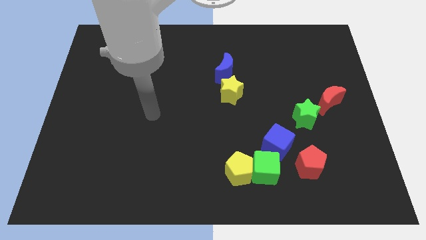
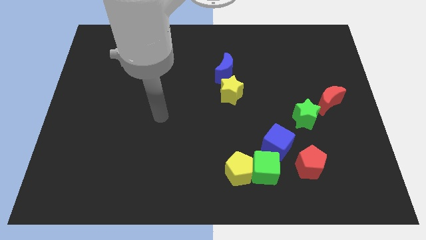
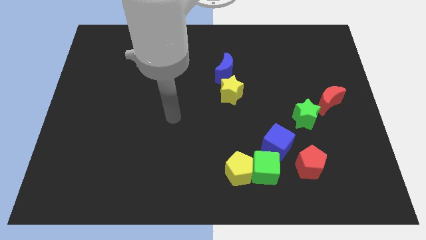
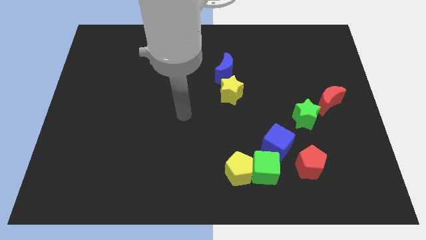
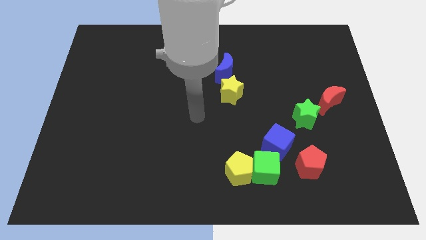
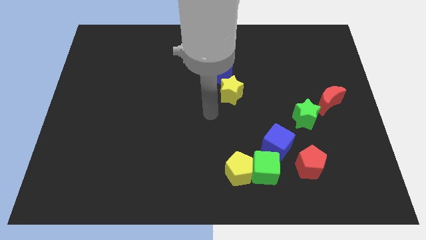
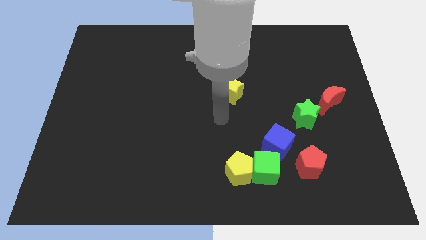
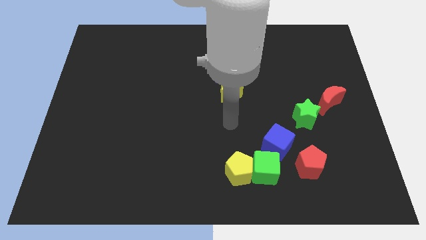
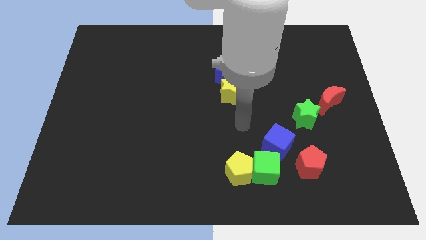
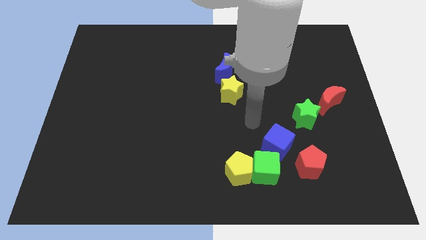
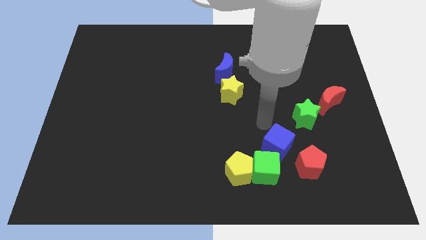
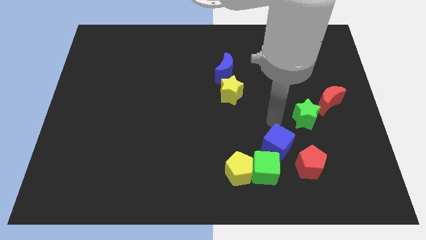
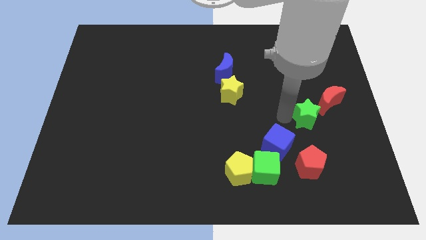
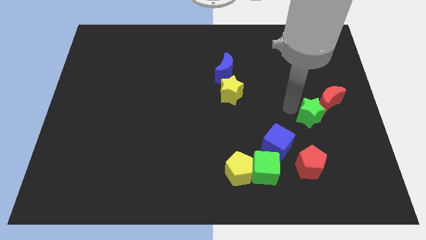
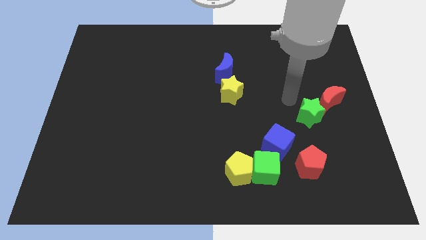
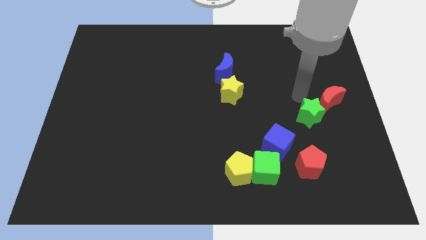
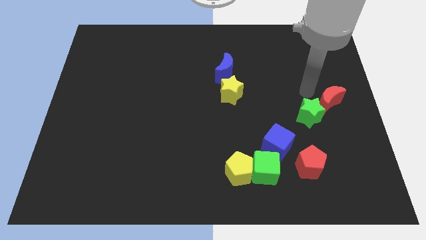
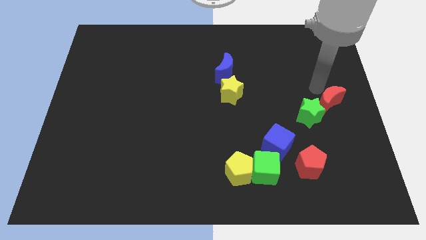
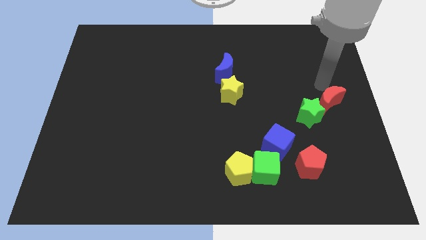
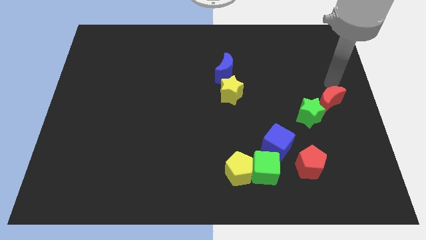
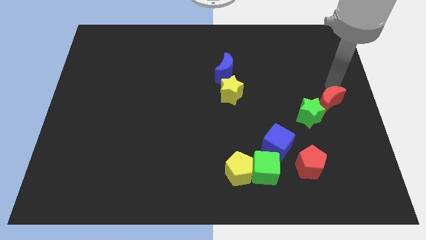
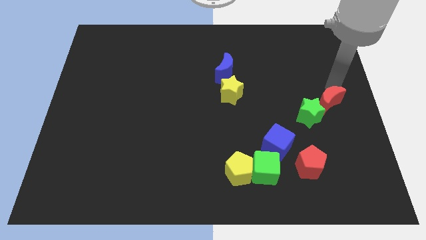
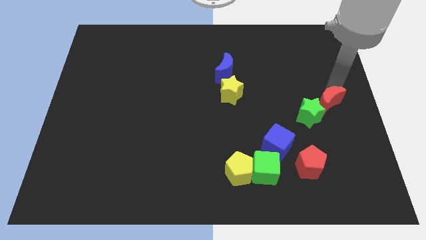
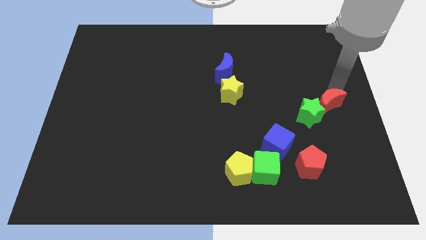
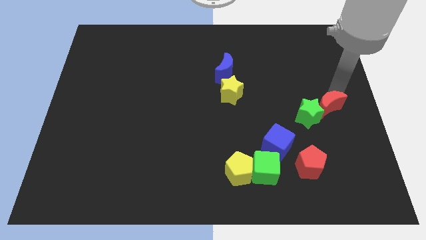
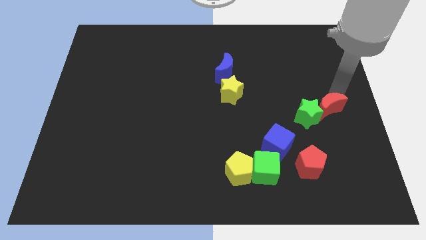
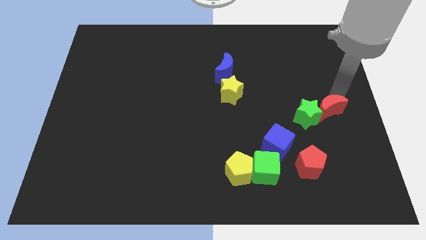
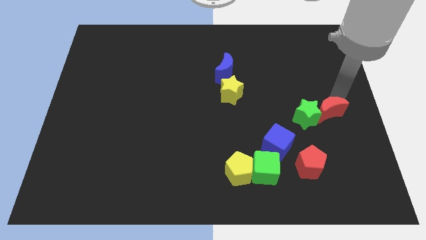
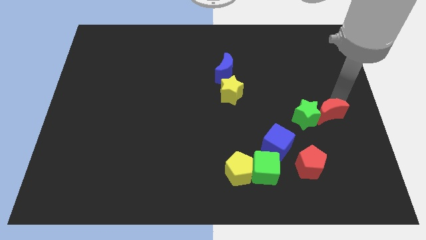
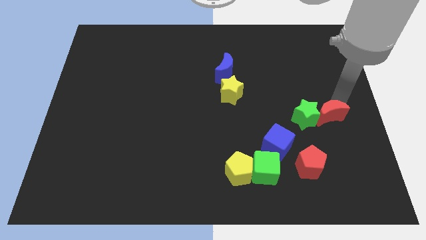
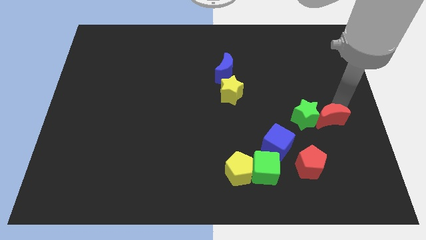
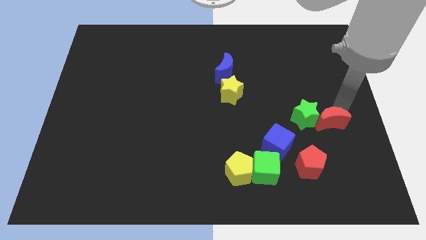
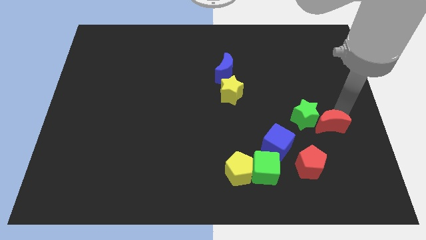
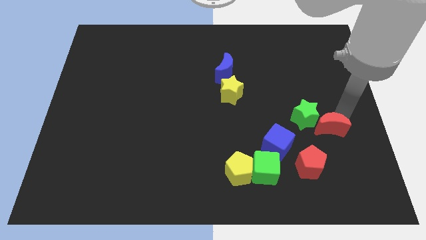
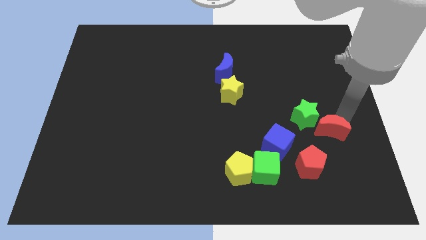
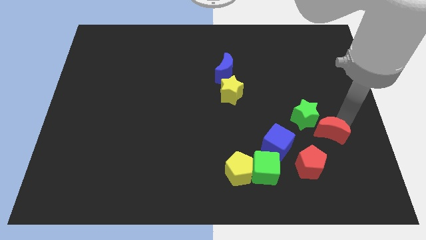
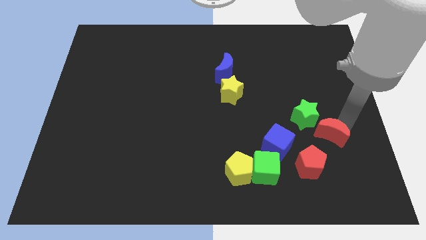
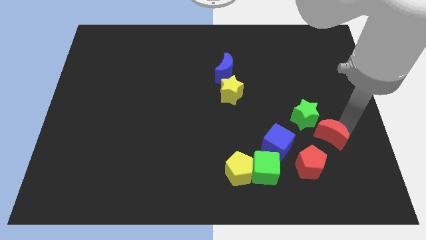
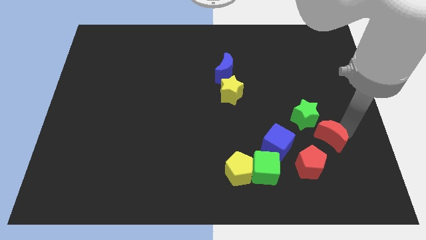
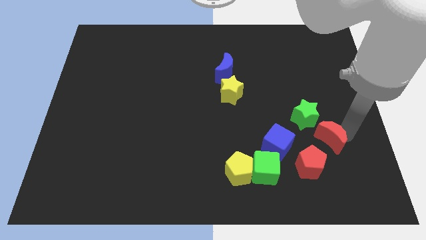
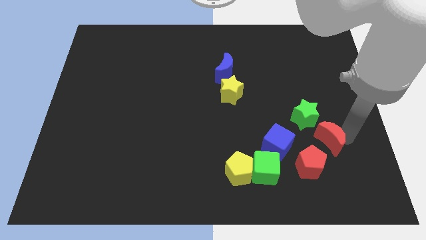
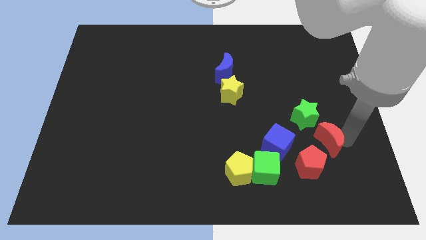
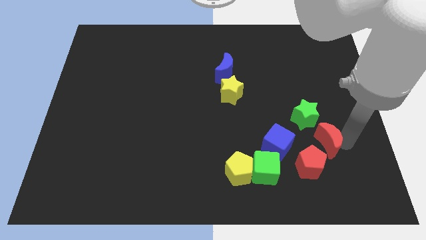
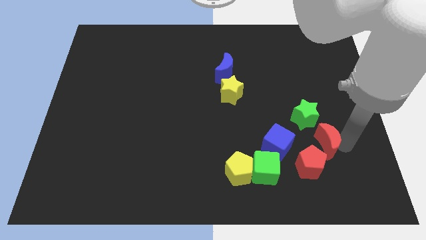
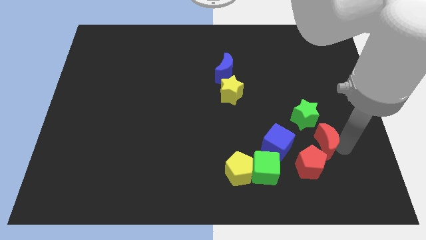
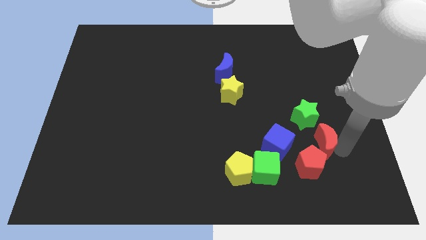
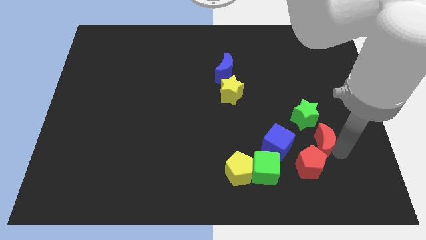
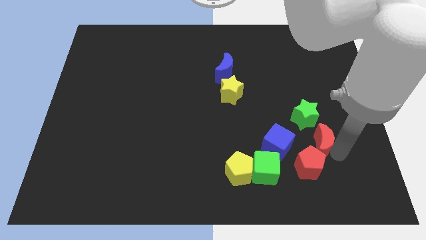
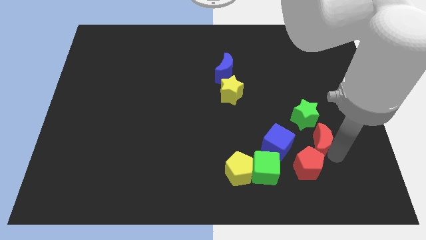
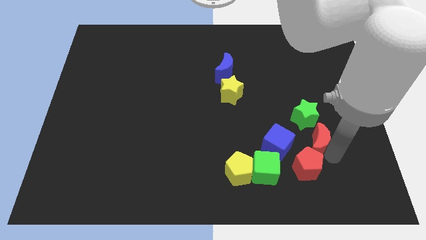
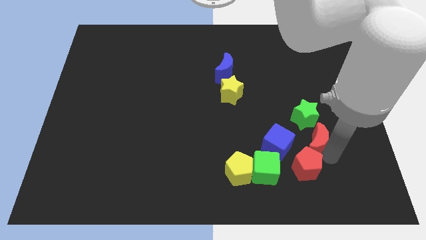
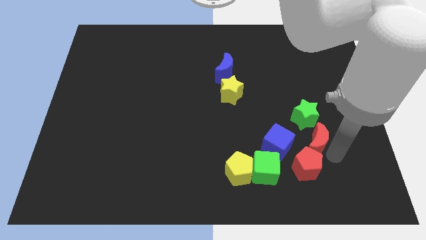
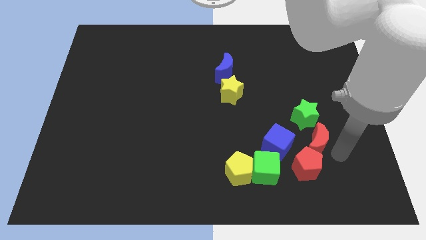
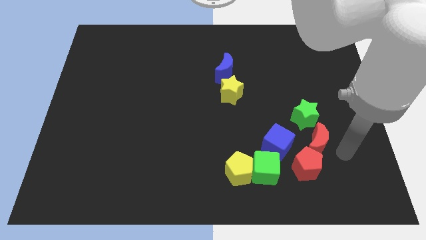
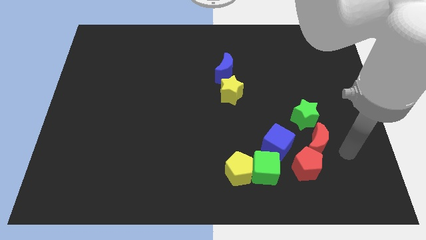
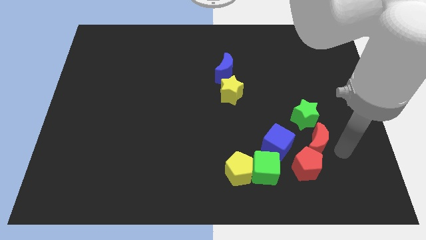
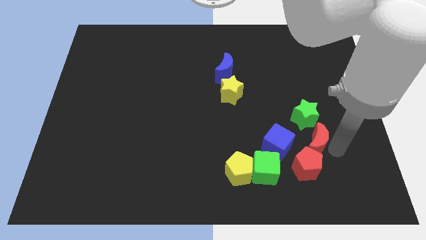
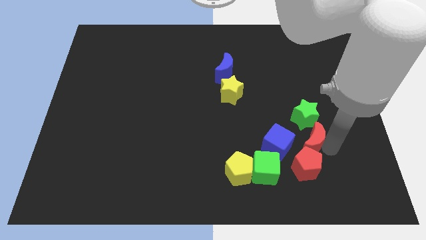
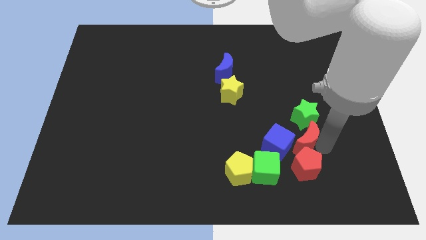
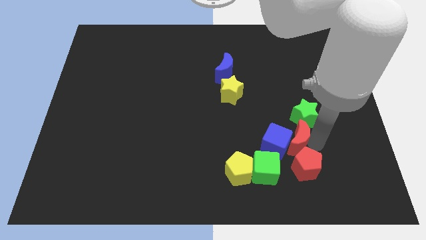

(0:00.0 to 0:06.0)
move the red moon next to the blue cube
